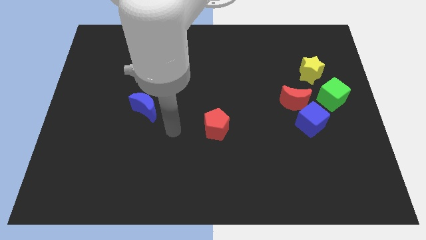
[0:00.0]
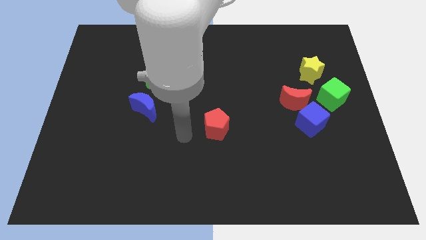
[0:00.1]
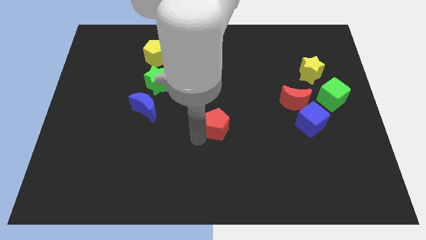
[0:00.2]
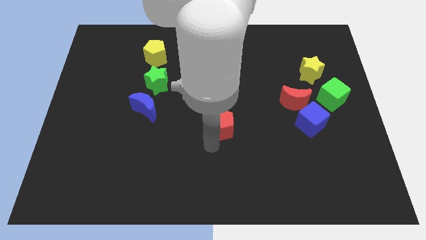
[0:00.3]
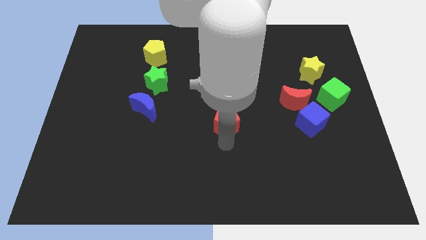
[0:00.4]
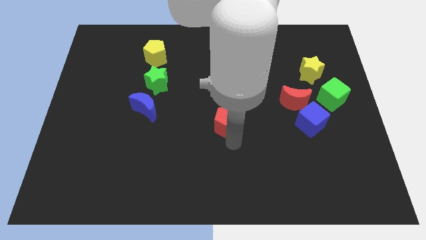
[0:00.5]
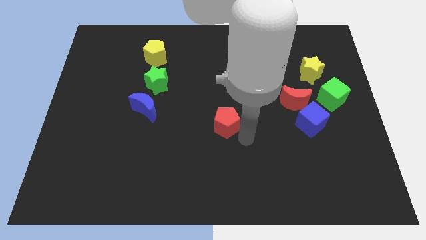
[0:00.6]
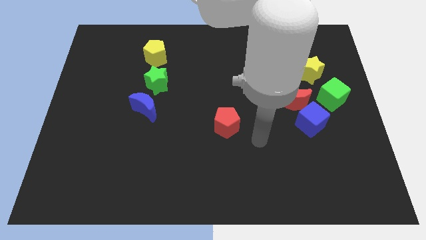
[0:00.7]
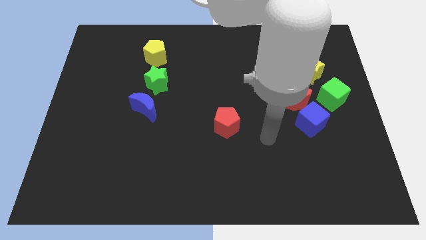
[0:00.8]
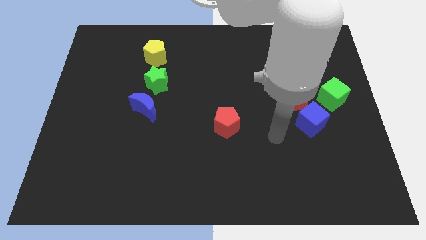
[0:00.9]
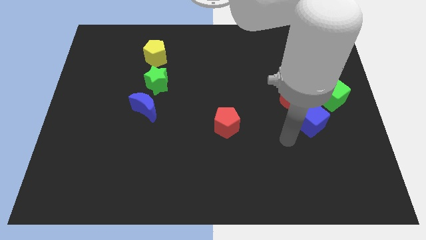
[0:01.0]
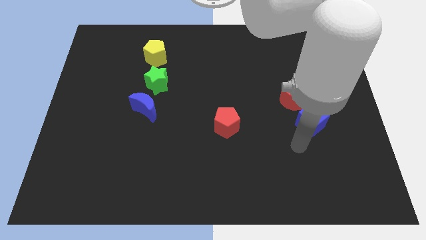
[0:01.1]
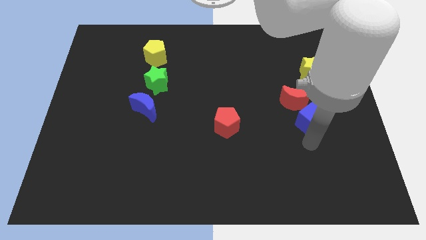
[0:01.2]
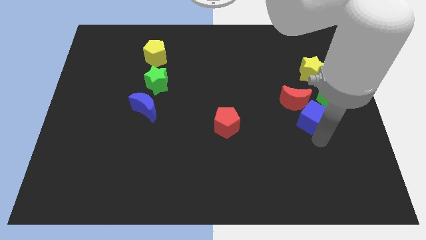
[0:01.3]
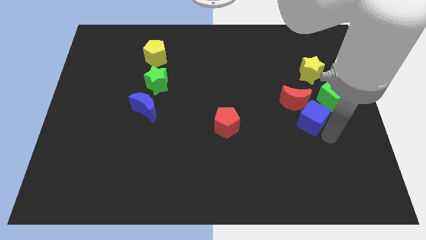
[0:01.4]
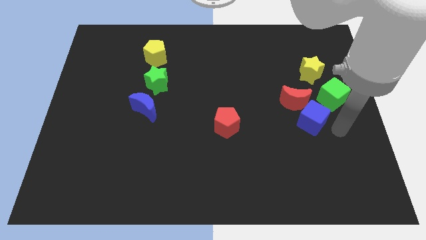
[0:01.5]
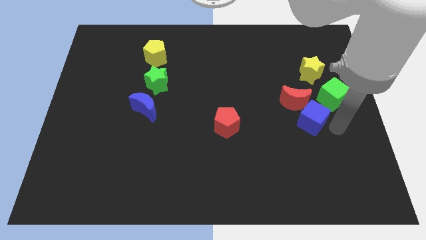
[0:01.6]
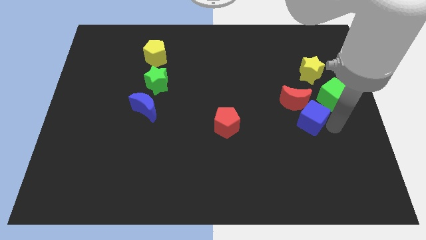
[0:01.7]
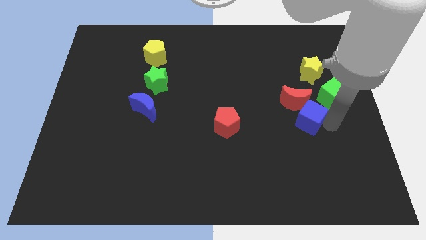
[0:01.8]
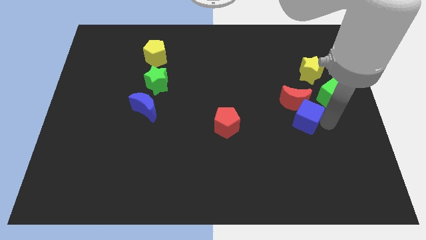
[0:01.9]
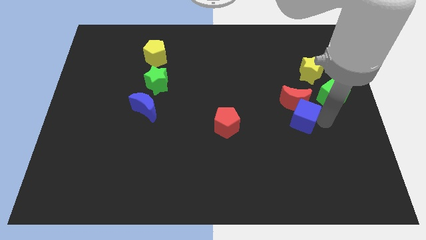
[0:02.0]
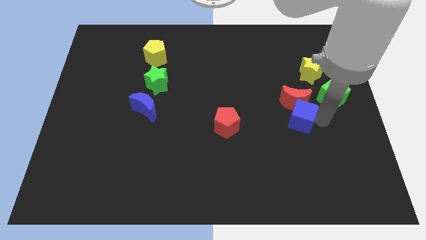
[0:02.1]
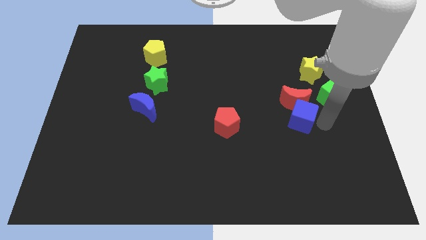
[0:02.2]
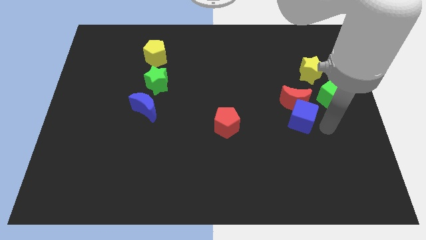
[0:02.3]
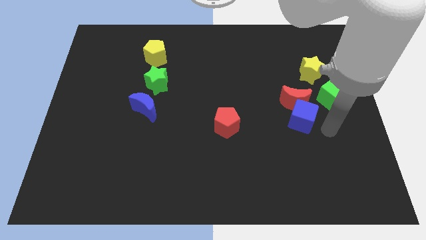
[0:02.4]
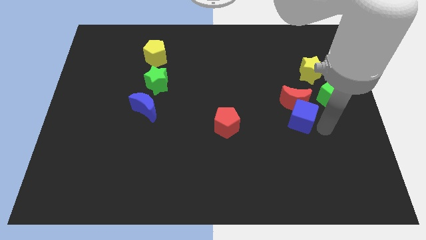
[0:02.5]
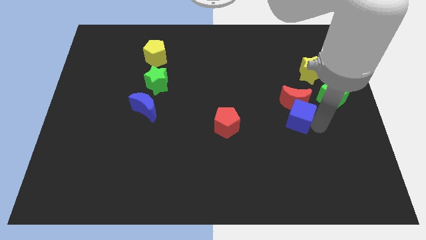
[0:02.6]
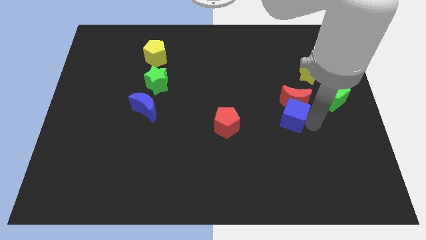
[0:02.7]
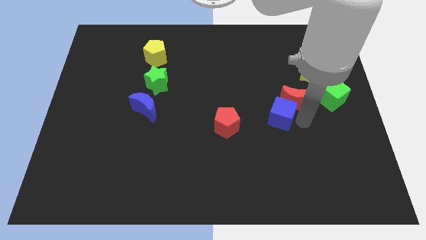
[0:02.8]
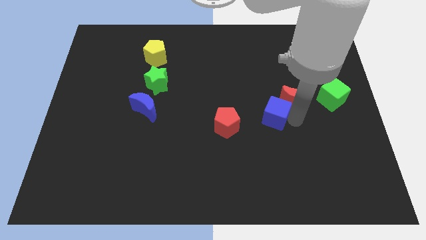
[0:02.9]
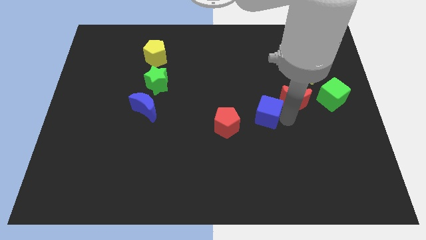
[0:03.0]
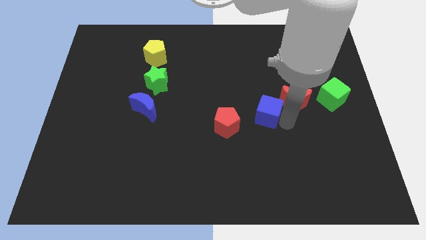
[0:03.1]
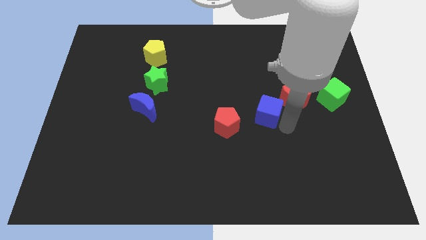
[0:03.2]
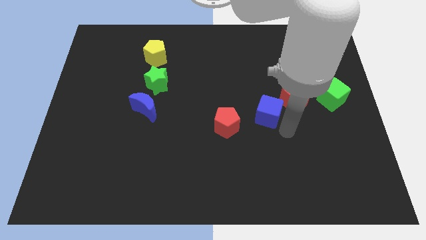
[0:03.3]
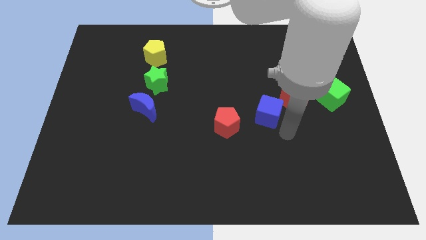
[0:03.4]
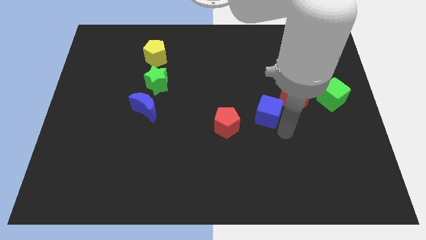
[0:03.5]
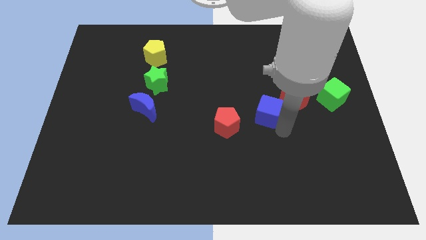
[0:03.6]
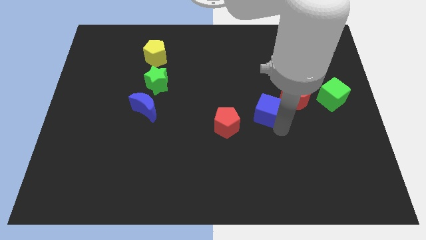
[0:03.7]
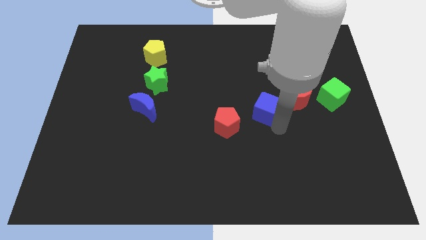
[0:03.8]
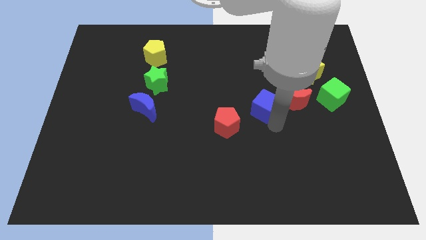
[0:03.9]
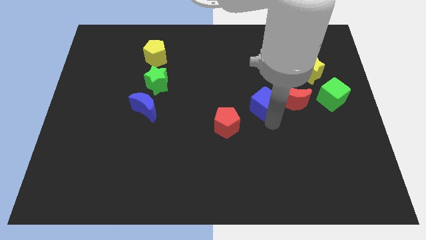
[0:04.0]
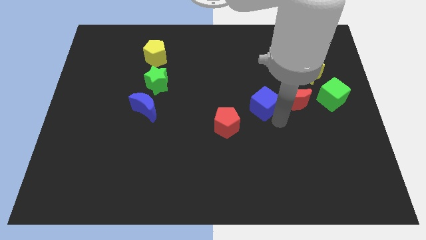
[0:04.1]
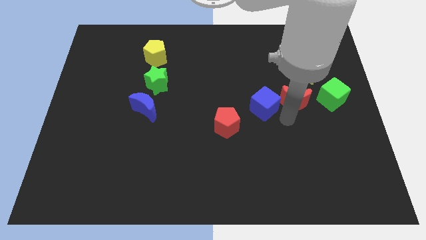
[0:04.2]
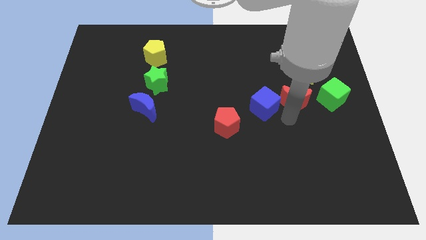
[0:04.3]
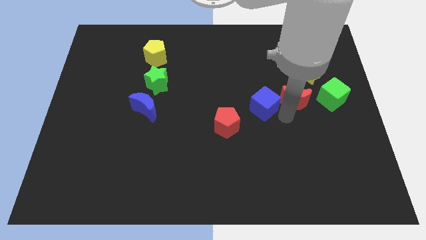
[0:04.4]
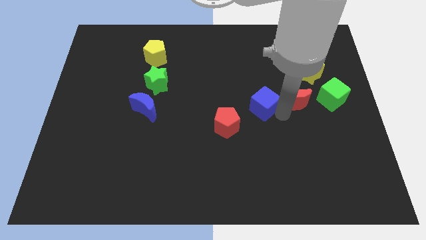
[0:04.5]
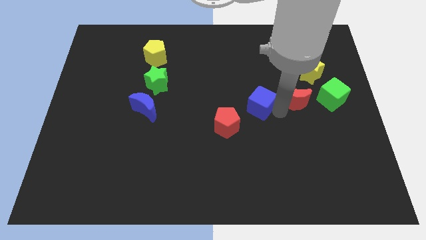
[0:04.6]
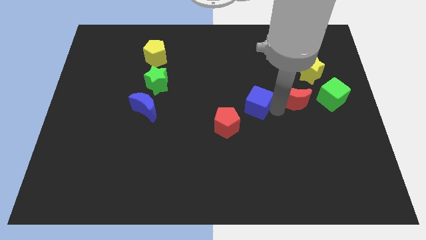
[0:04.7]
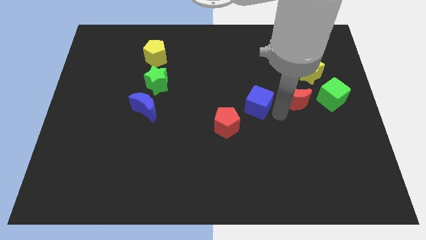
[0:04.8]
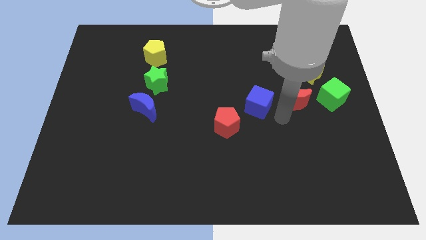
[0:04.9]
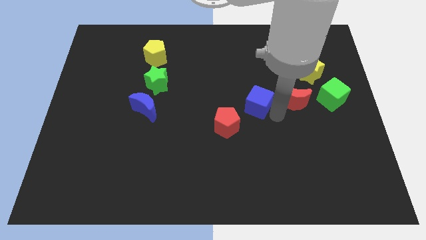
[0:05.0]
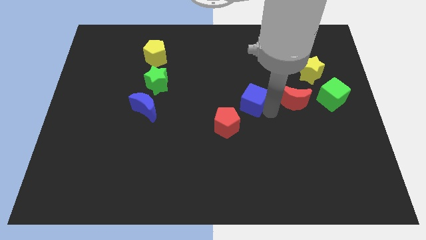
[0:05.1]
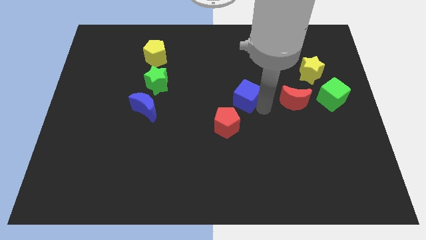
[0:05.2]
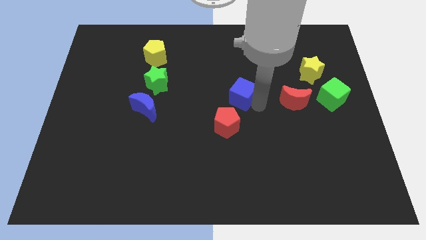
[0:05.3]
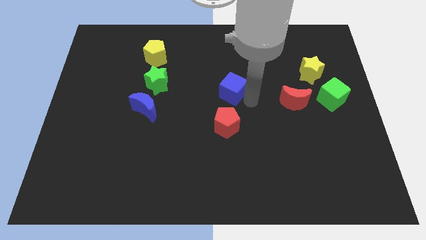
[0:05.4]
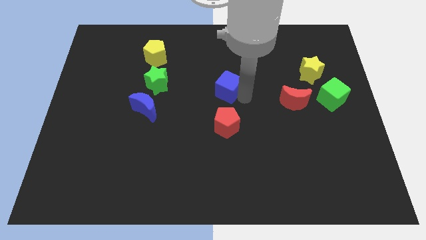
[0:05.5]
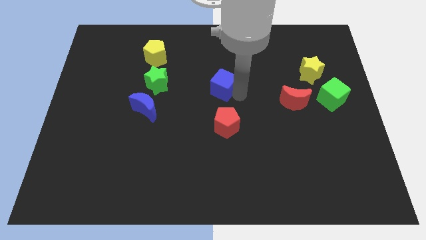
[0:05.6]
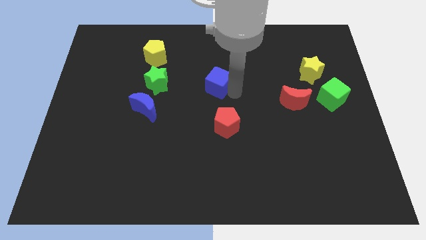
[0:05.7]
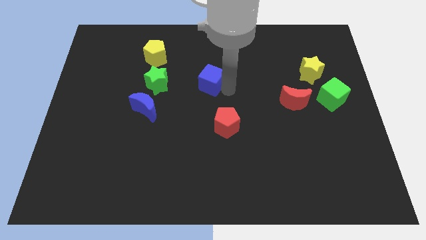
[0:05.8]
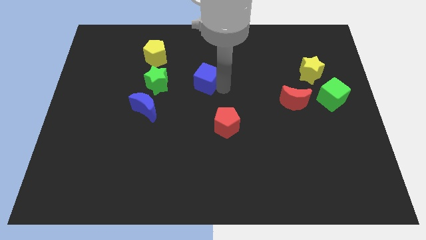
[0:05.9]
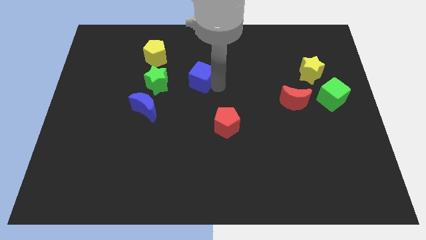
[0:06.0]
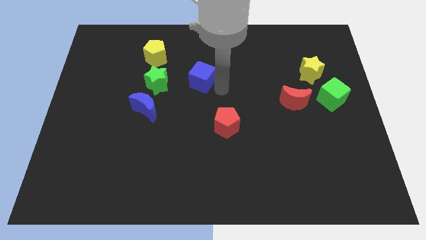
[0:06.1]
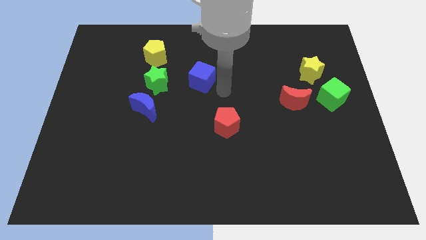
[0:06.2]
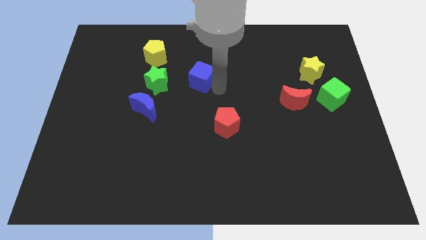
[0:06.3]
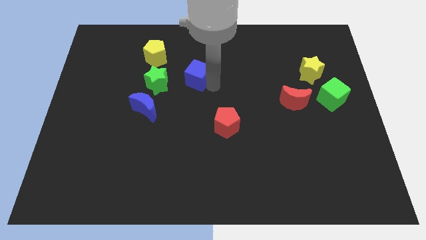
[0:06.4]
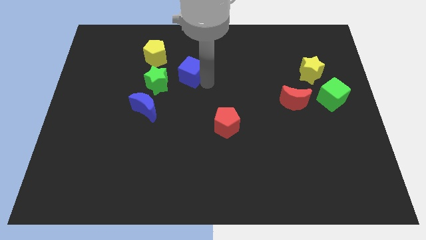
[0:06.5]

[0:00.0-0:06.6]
push the blue cube to the top right side of the green star
